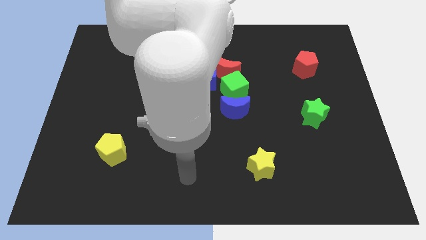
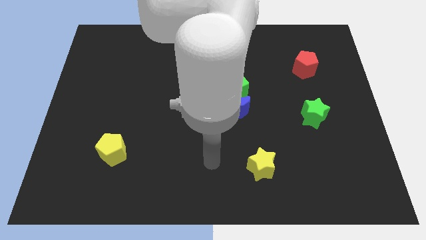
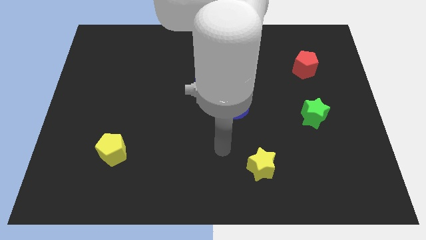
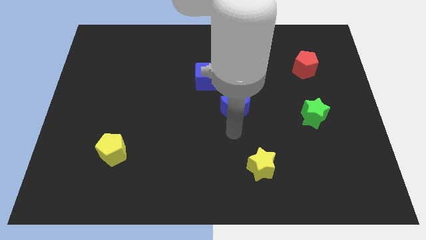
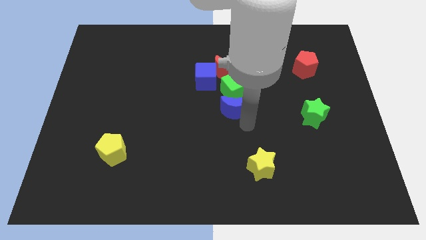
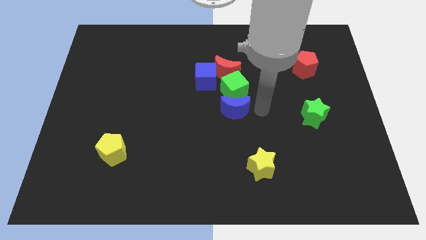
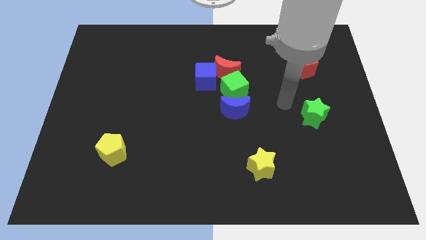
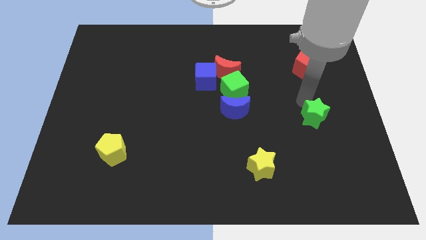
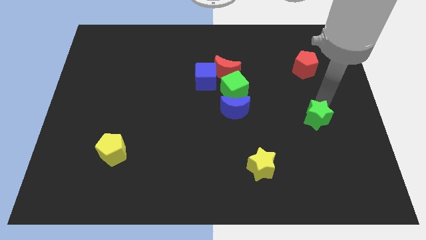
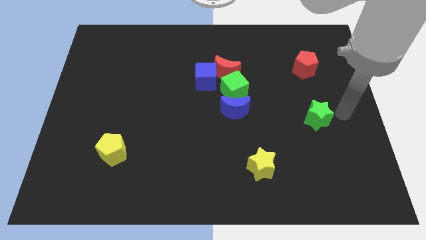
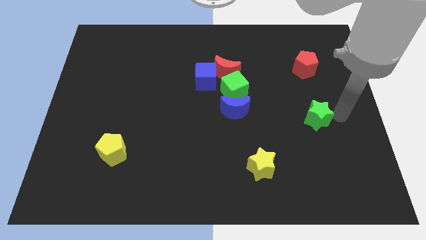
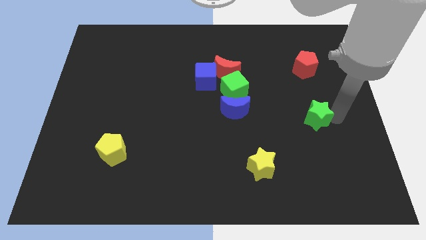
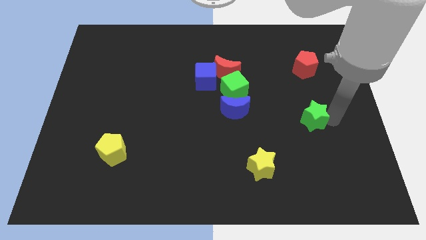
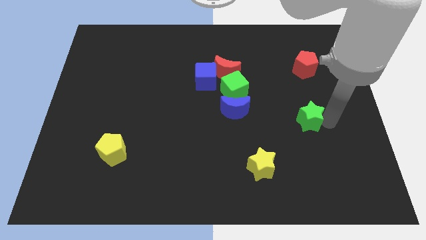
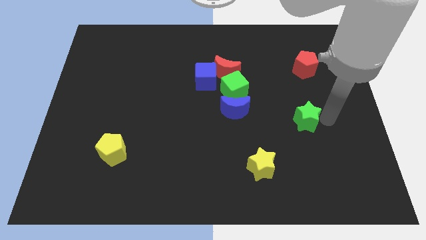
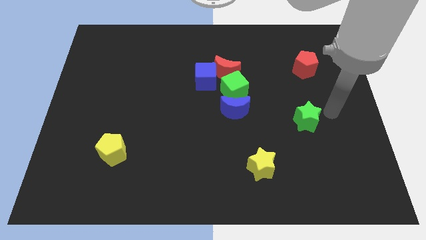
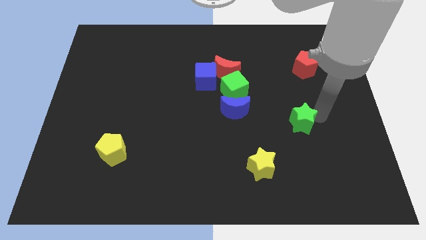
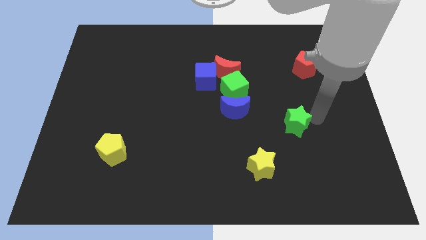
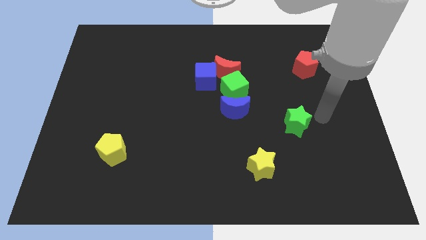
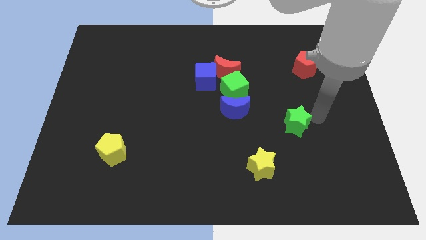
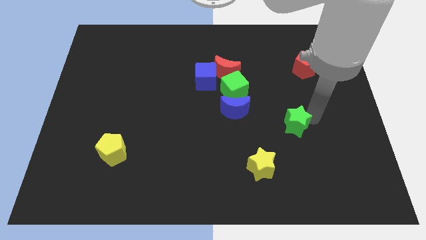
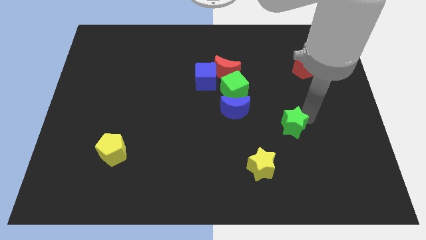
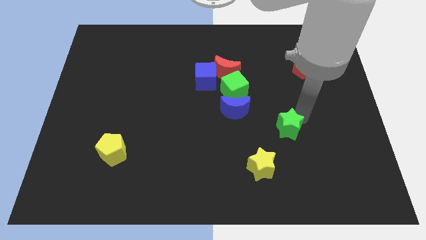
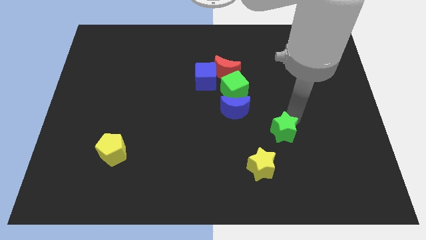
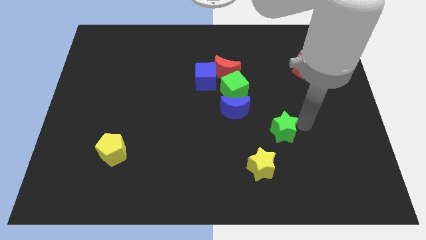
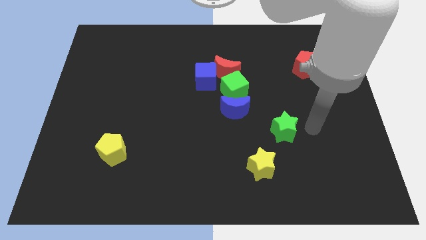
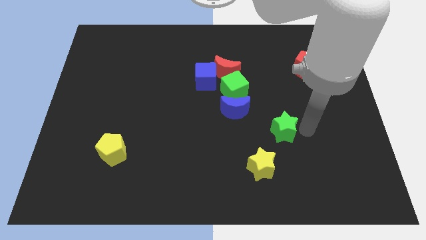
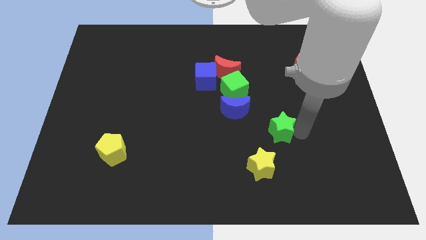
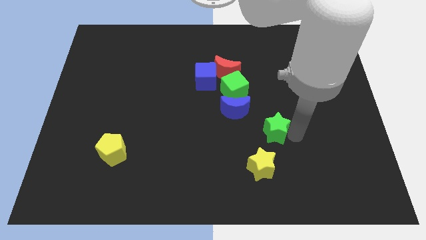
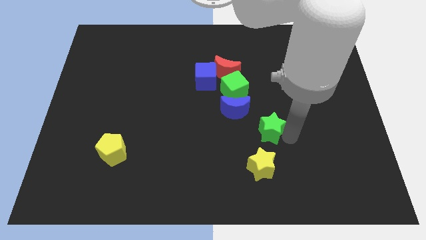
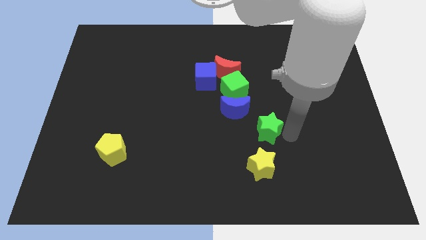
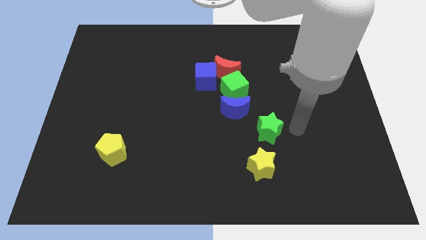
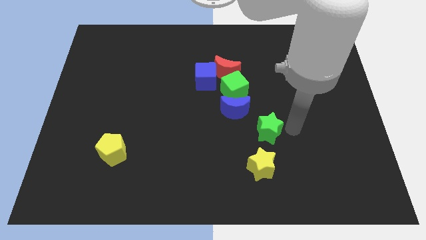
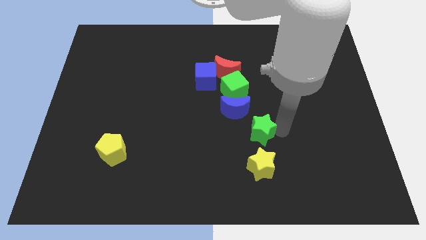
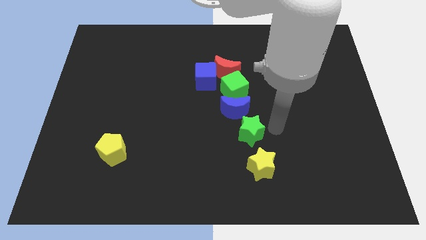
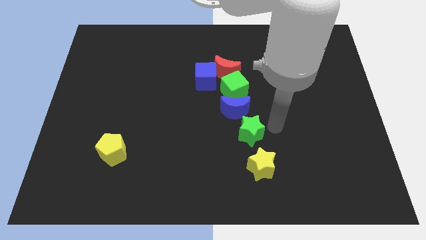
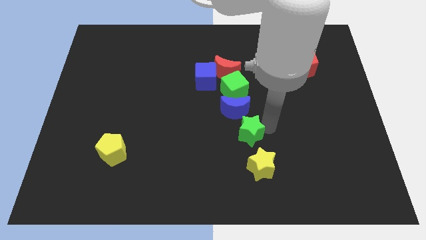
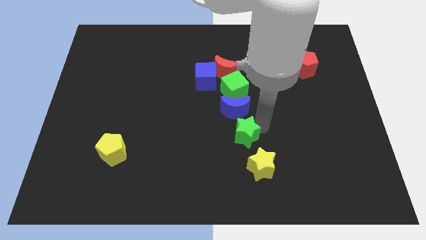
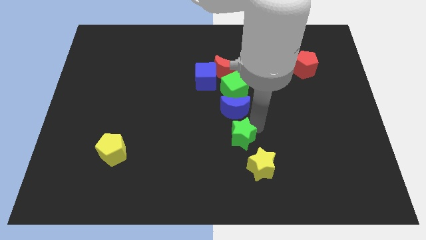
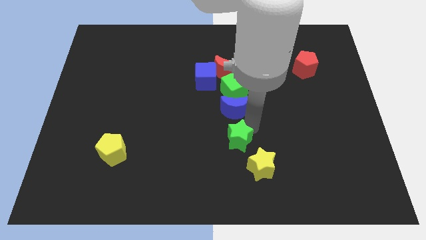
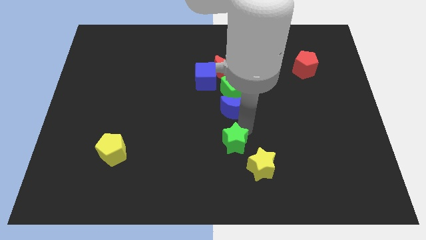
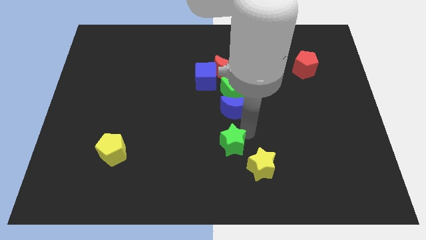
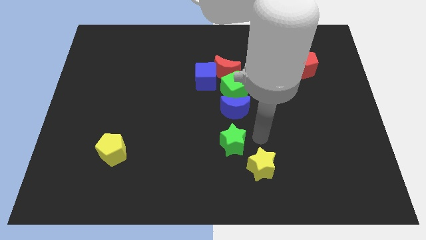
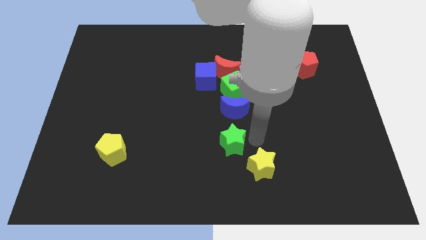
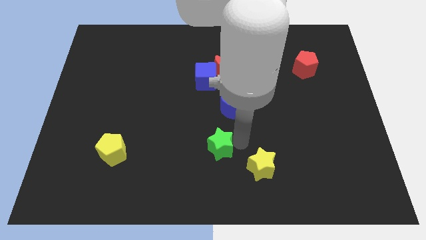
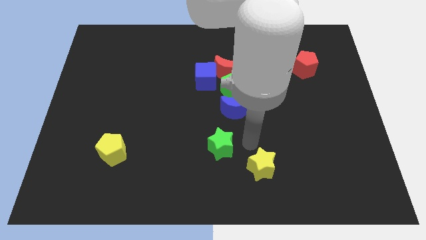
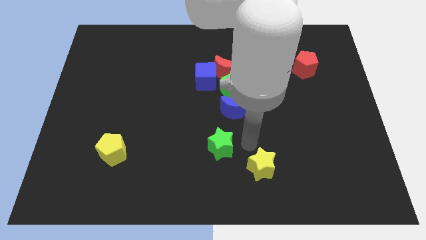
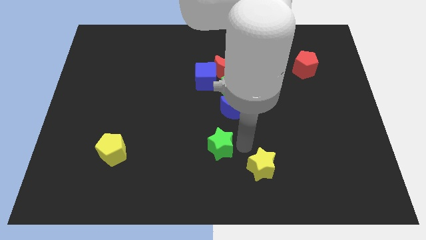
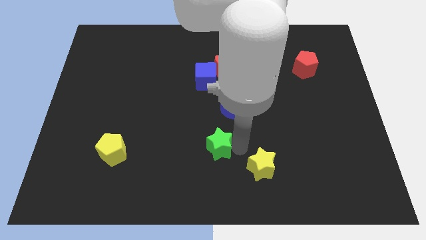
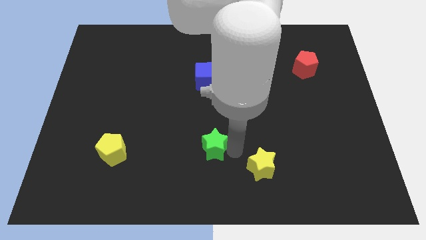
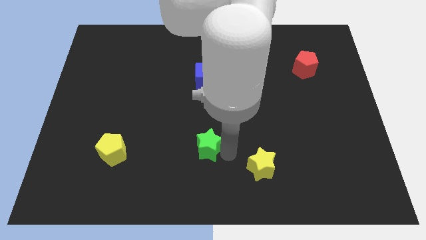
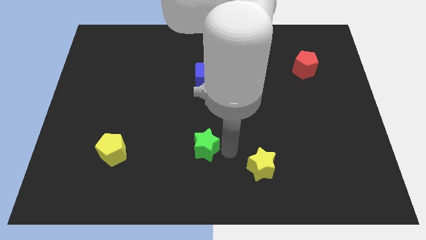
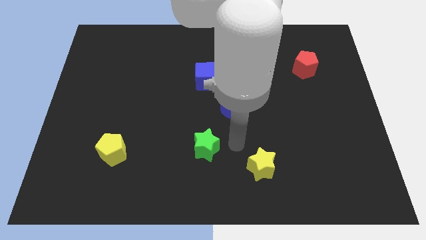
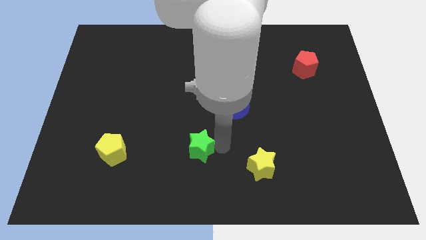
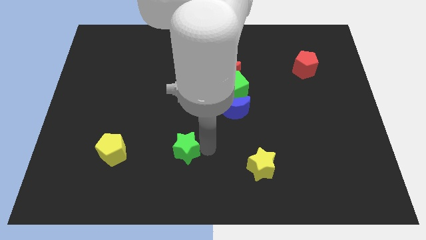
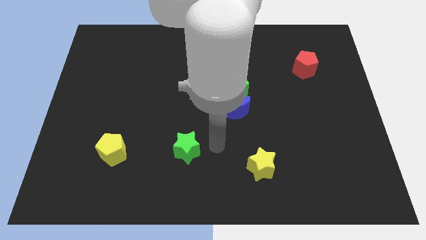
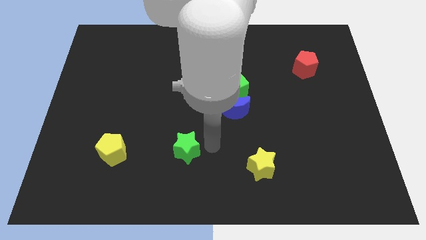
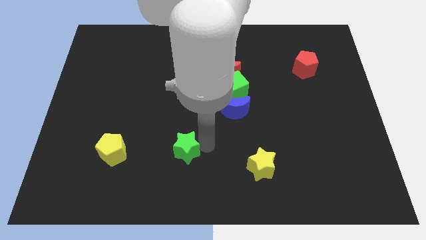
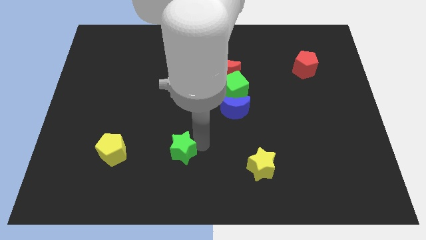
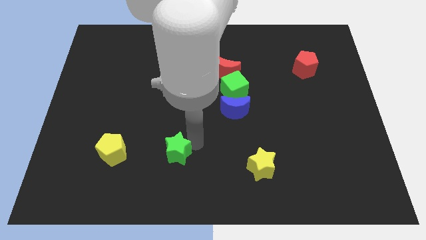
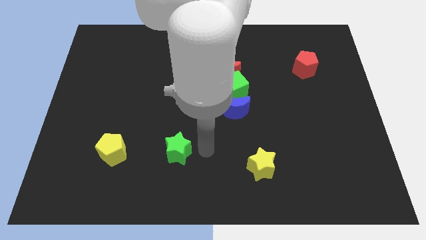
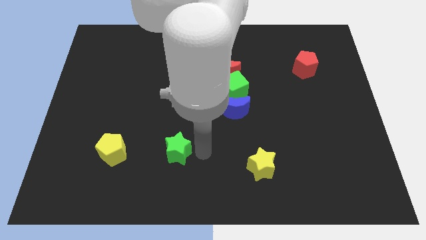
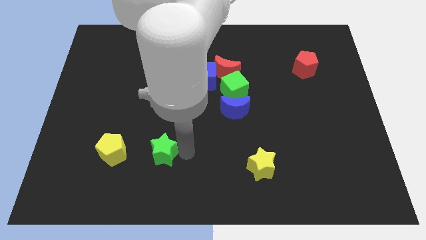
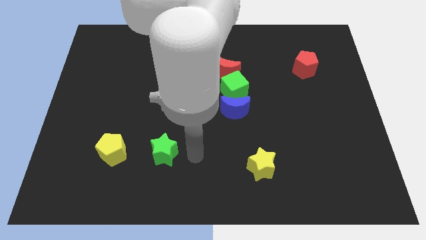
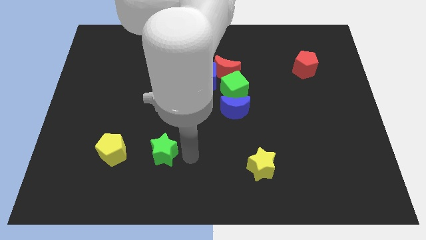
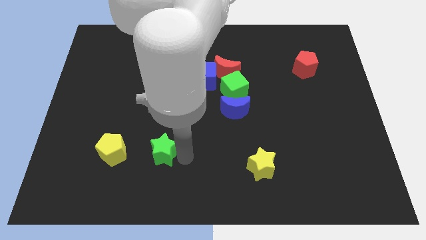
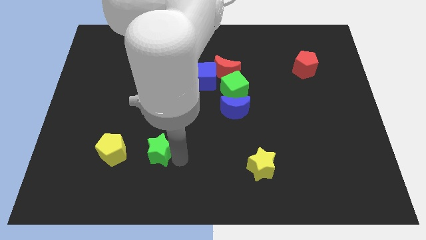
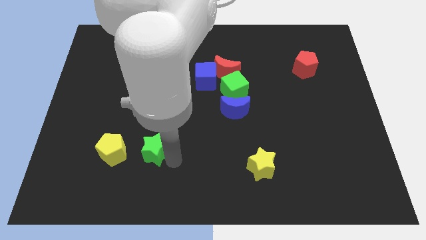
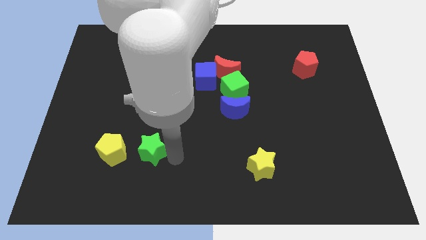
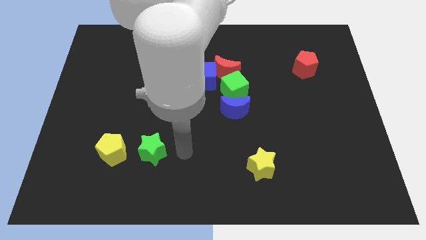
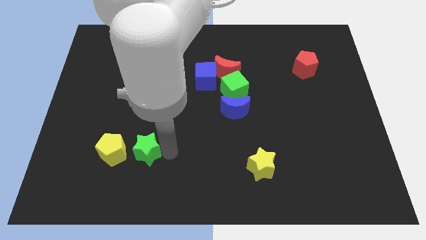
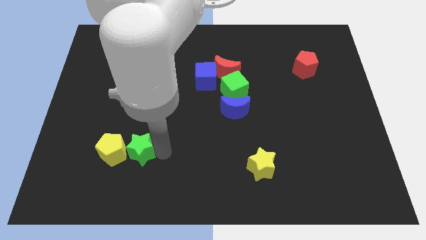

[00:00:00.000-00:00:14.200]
push the green star towards the yellow pentagon
